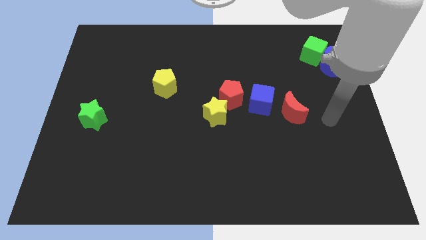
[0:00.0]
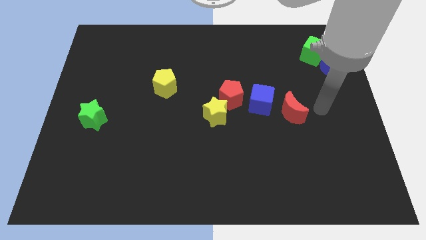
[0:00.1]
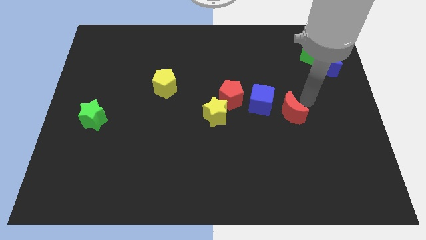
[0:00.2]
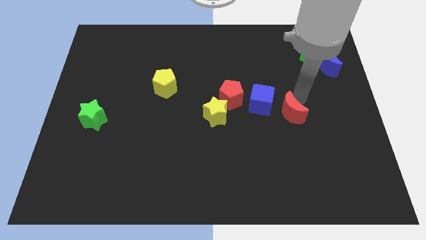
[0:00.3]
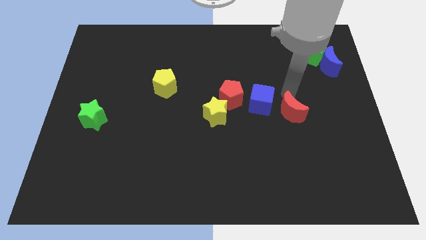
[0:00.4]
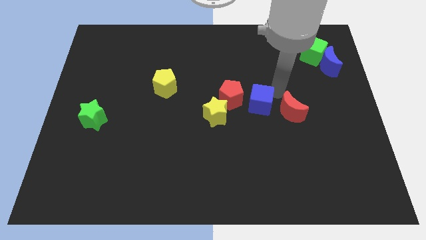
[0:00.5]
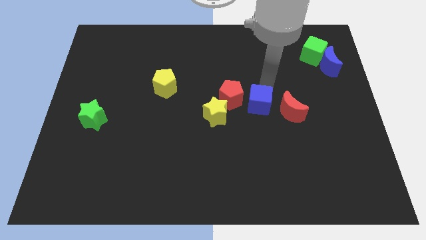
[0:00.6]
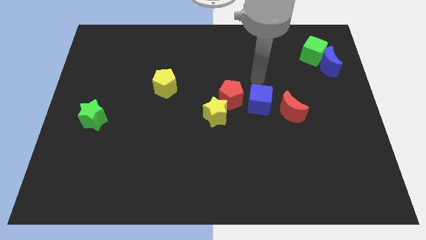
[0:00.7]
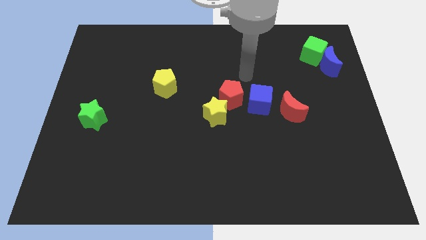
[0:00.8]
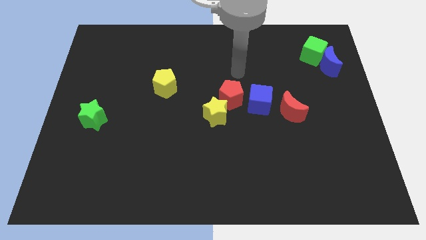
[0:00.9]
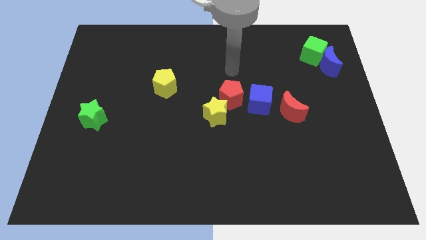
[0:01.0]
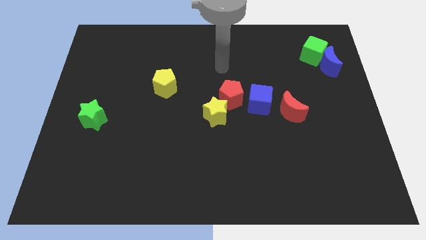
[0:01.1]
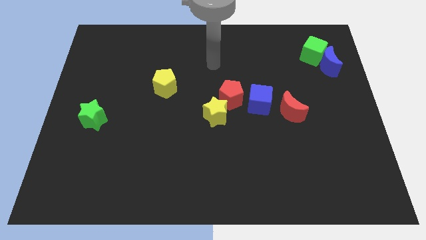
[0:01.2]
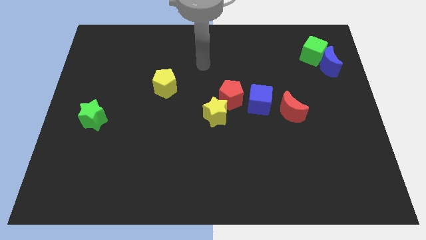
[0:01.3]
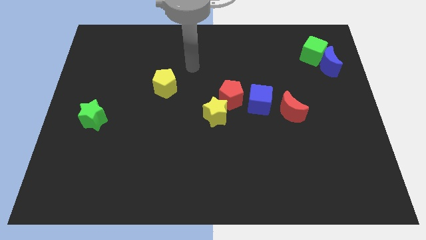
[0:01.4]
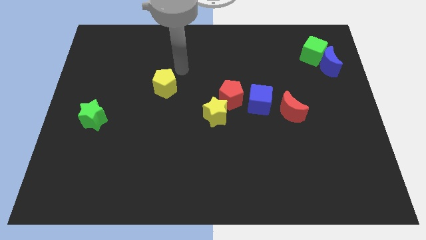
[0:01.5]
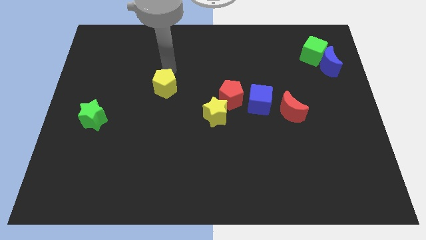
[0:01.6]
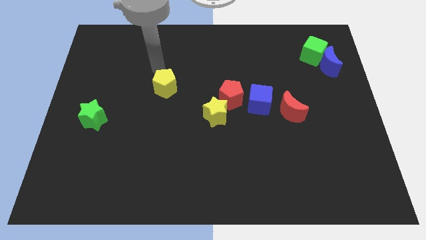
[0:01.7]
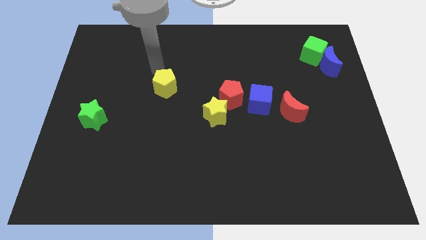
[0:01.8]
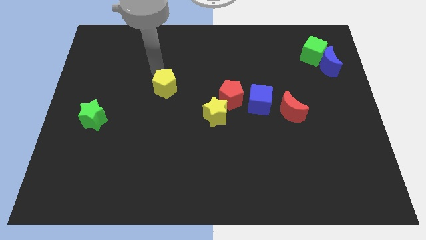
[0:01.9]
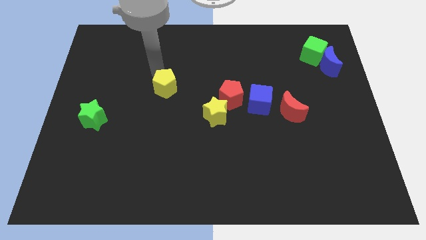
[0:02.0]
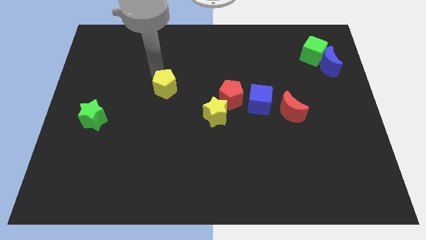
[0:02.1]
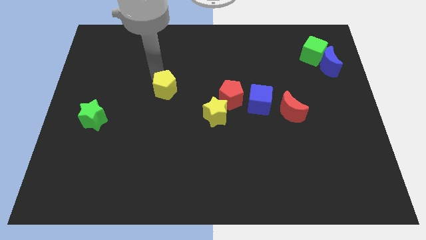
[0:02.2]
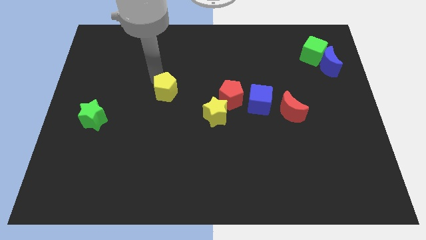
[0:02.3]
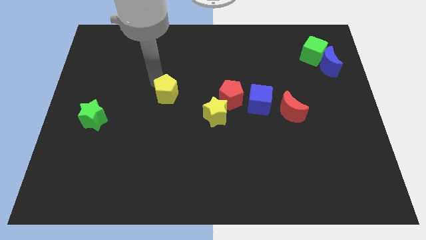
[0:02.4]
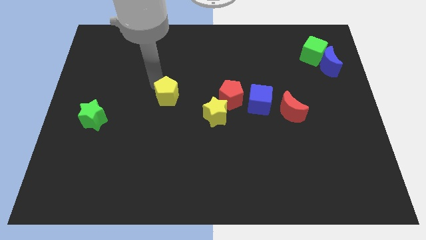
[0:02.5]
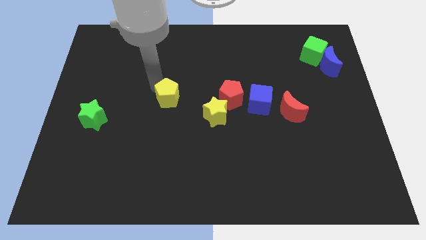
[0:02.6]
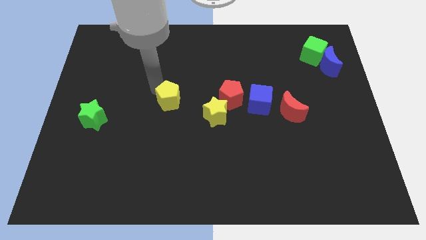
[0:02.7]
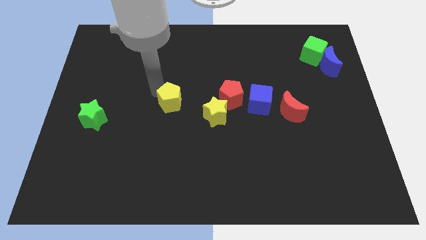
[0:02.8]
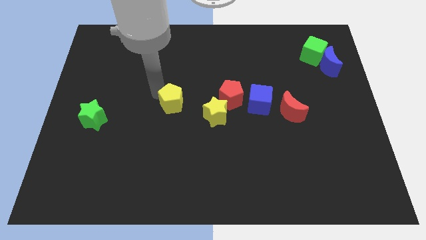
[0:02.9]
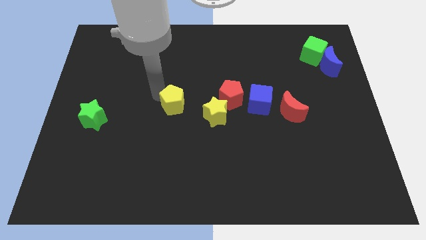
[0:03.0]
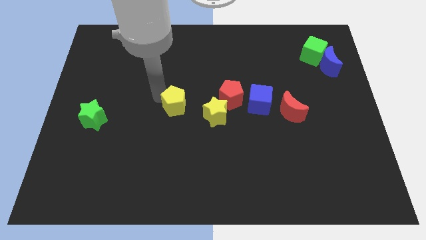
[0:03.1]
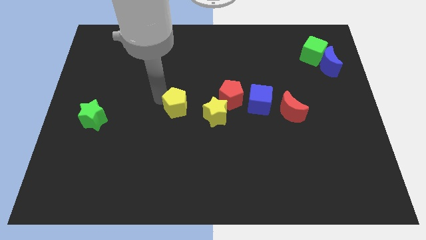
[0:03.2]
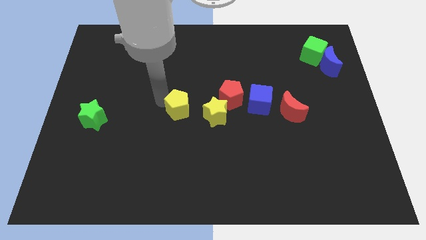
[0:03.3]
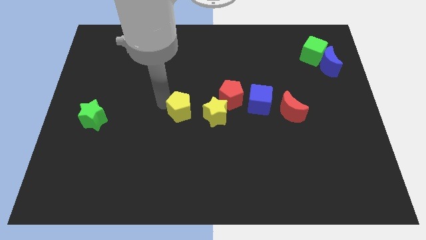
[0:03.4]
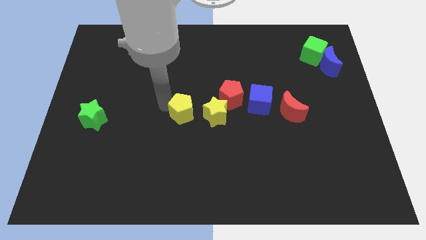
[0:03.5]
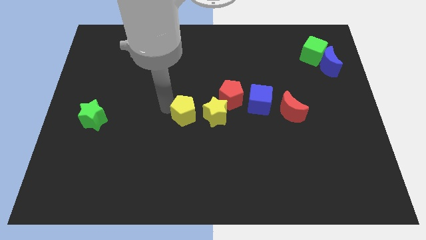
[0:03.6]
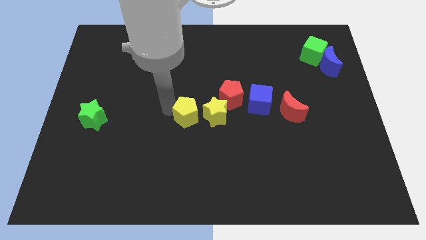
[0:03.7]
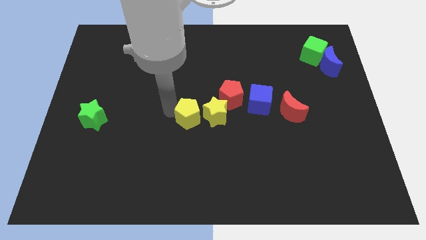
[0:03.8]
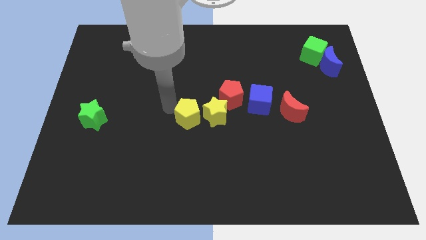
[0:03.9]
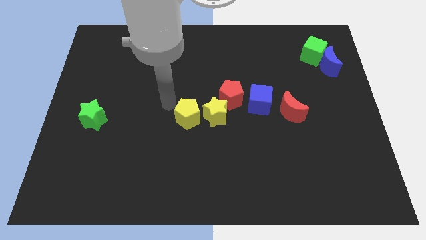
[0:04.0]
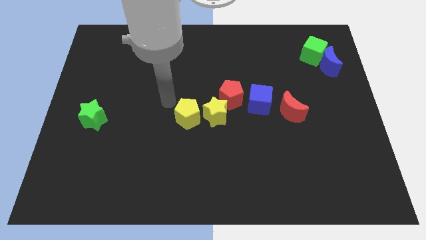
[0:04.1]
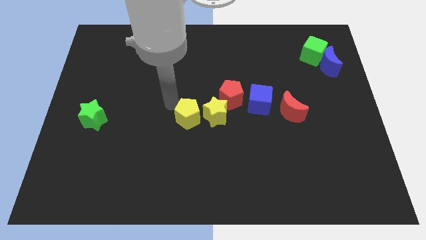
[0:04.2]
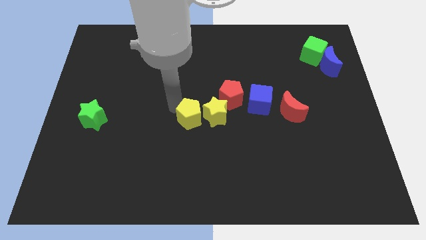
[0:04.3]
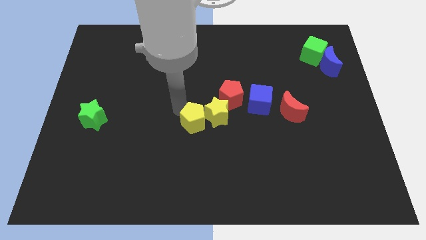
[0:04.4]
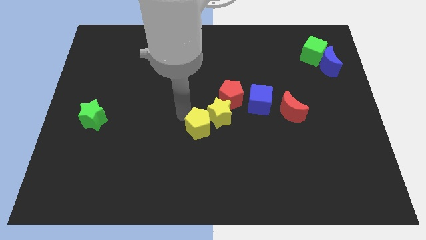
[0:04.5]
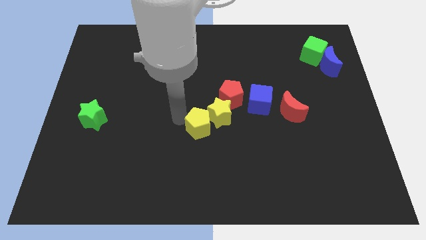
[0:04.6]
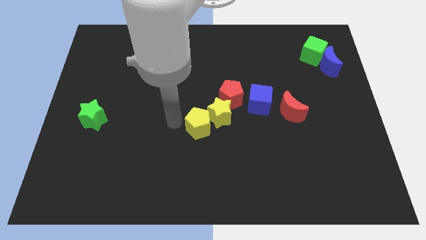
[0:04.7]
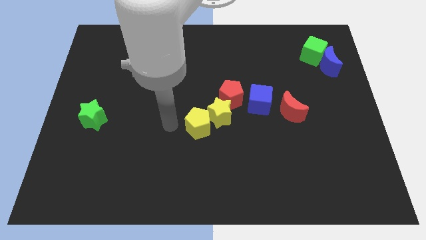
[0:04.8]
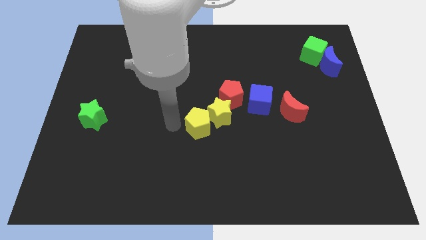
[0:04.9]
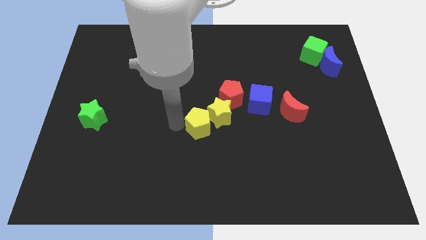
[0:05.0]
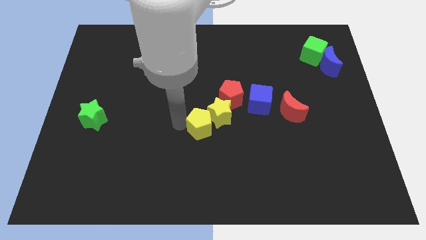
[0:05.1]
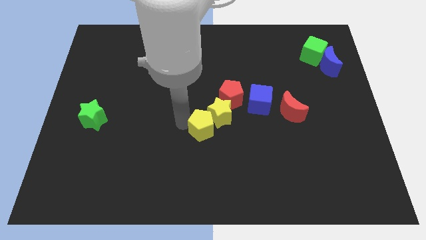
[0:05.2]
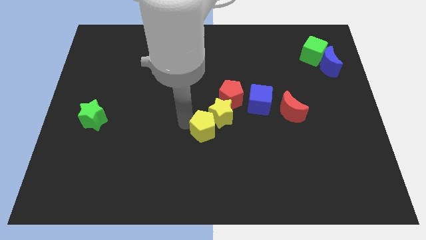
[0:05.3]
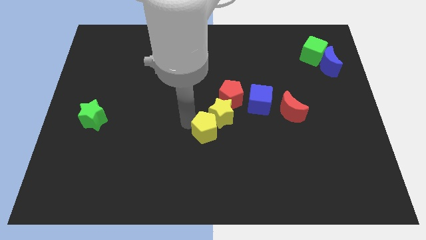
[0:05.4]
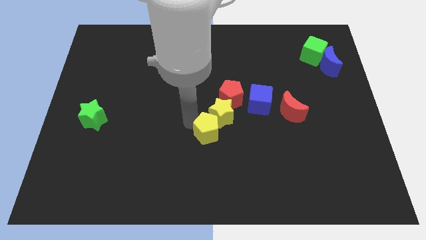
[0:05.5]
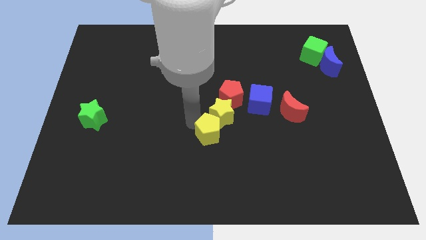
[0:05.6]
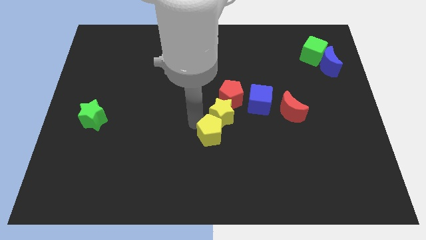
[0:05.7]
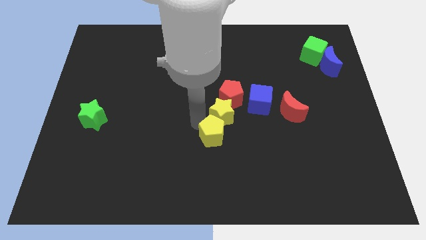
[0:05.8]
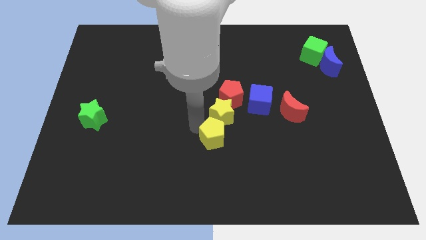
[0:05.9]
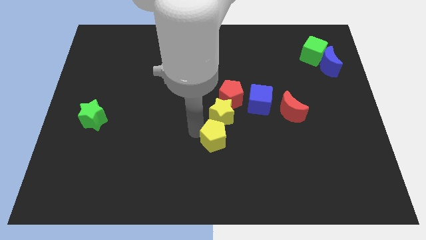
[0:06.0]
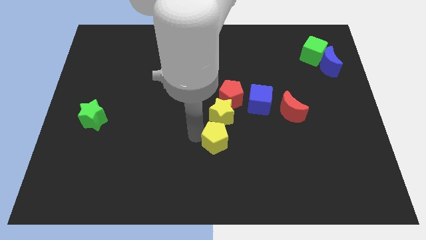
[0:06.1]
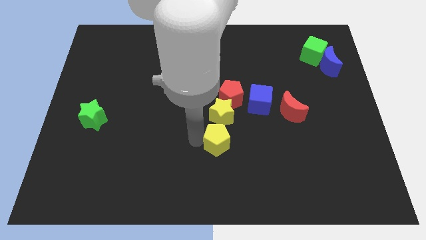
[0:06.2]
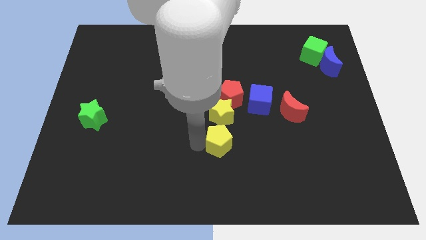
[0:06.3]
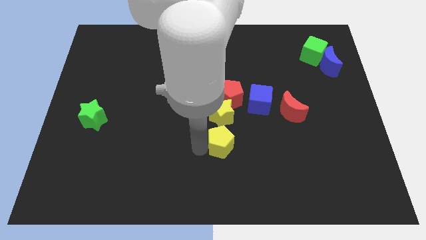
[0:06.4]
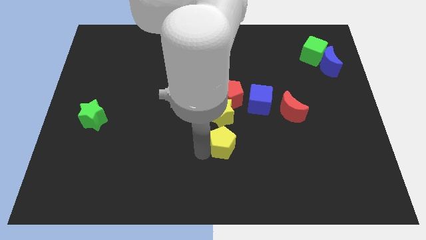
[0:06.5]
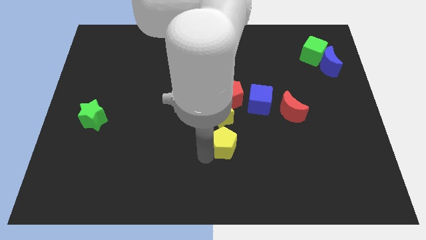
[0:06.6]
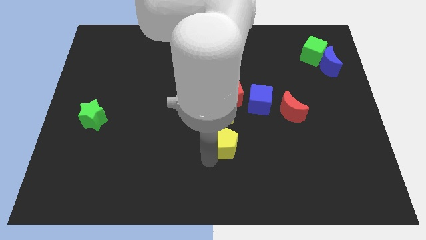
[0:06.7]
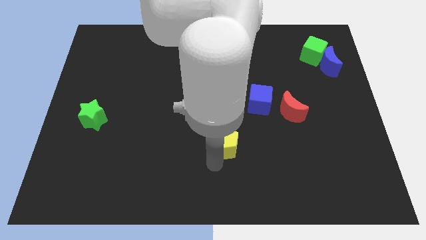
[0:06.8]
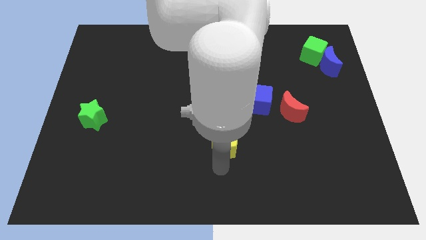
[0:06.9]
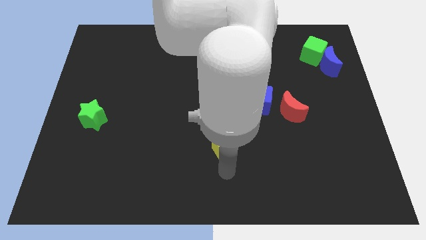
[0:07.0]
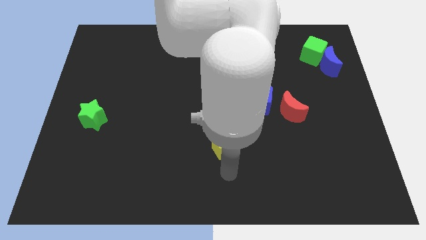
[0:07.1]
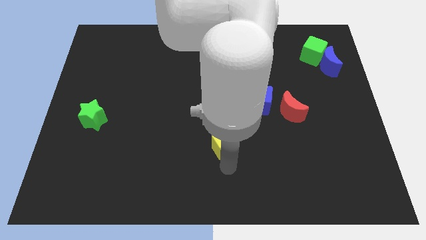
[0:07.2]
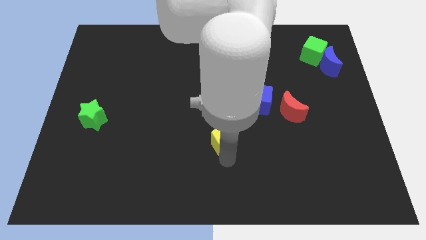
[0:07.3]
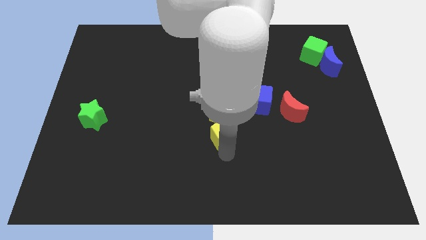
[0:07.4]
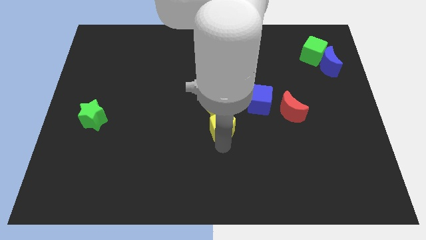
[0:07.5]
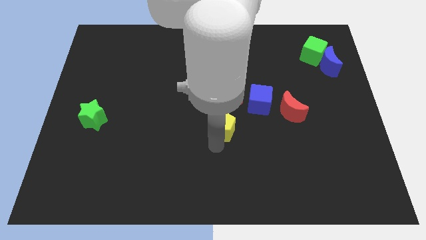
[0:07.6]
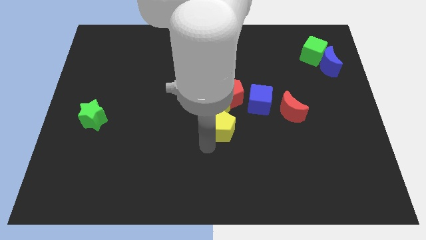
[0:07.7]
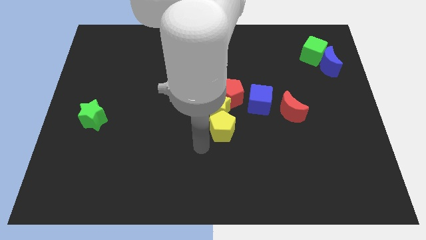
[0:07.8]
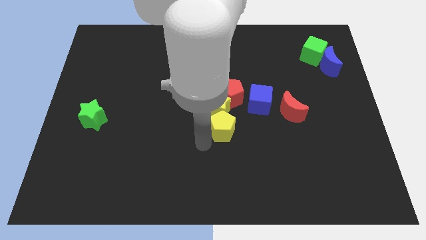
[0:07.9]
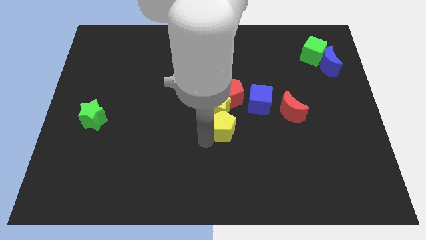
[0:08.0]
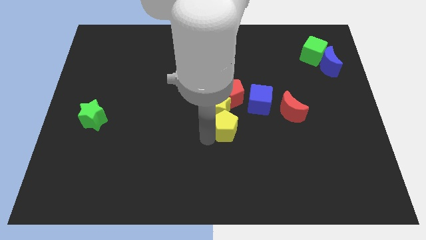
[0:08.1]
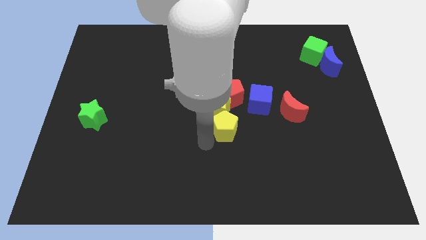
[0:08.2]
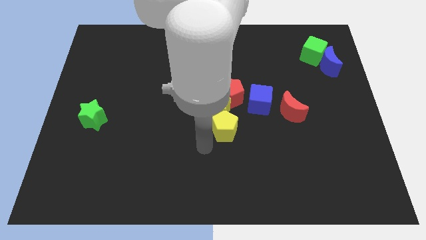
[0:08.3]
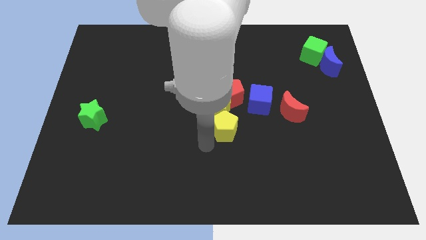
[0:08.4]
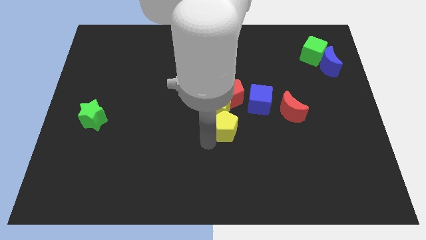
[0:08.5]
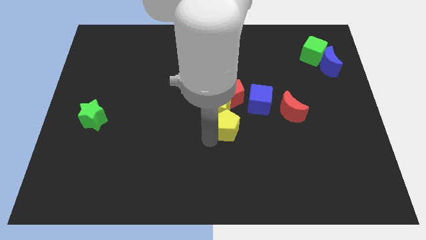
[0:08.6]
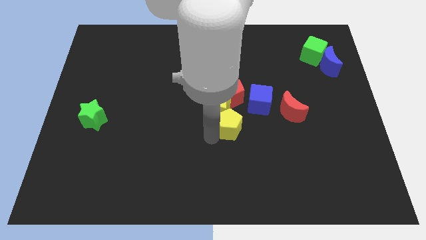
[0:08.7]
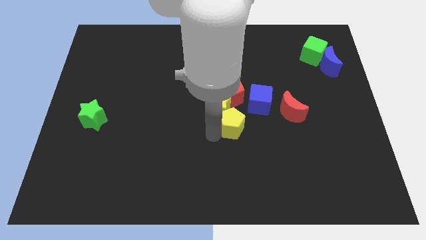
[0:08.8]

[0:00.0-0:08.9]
move the yellow pentagon to the left of the red moon
